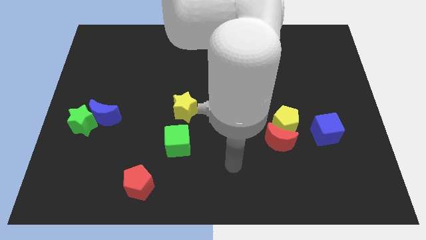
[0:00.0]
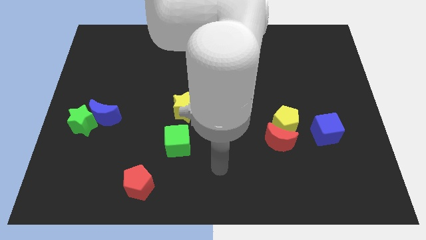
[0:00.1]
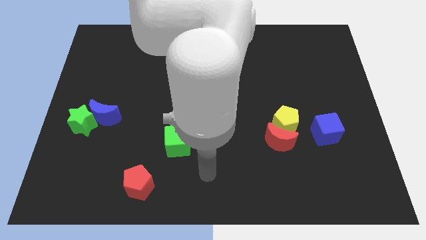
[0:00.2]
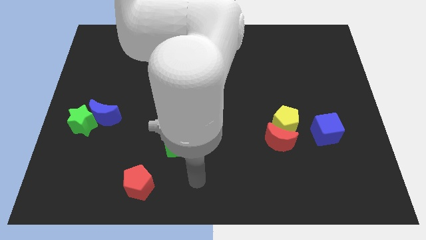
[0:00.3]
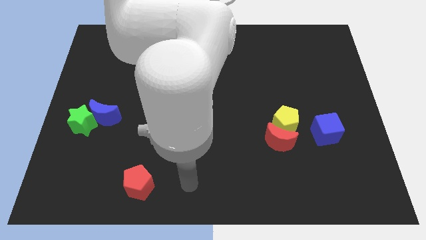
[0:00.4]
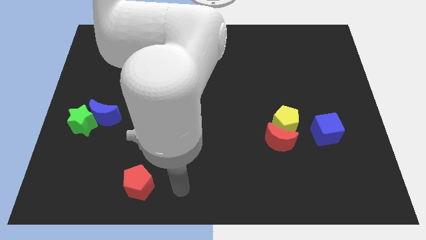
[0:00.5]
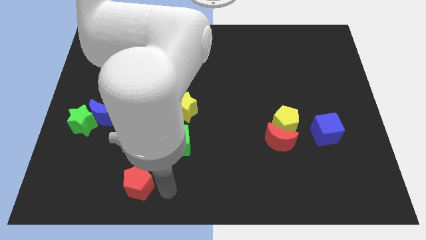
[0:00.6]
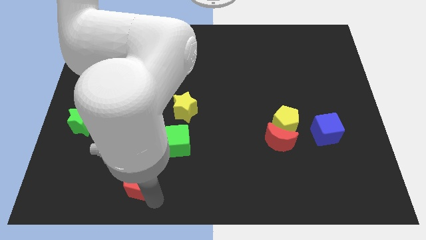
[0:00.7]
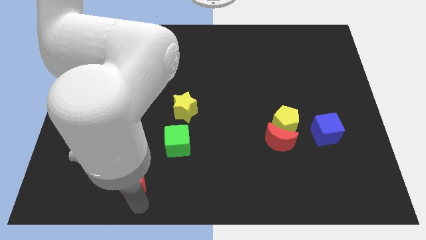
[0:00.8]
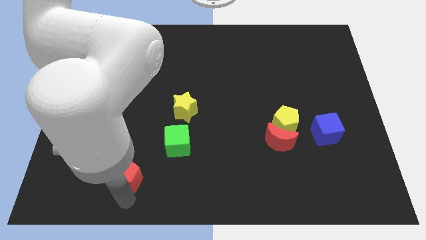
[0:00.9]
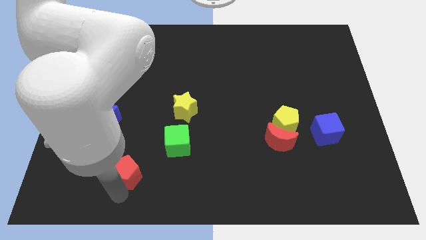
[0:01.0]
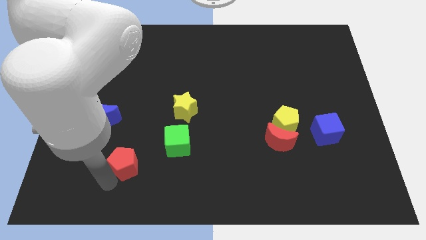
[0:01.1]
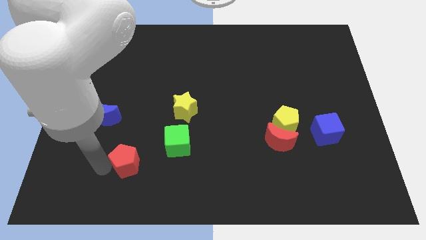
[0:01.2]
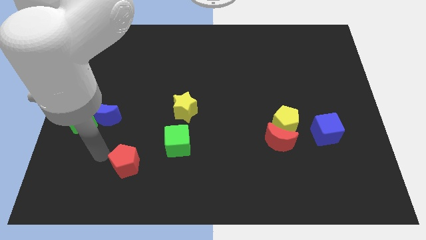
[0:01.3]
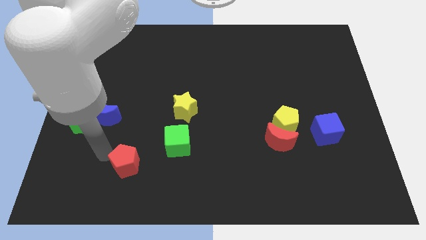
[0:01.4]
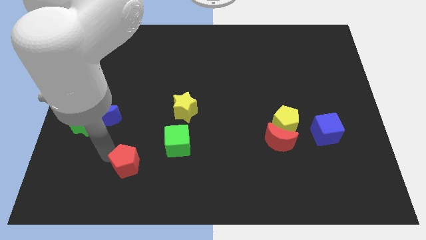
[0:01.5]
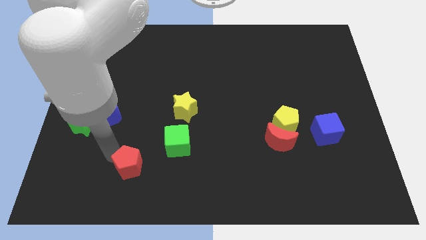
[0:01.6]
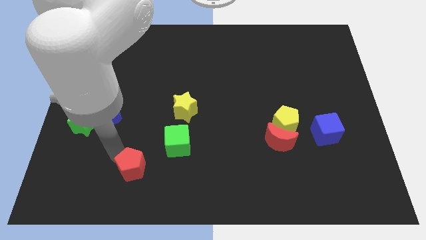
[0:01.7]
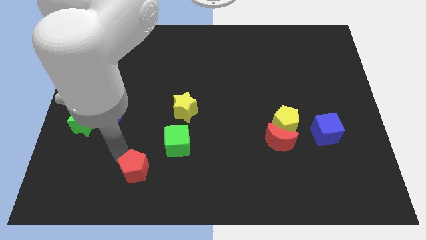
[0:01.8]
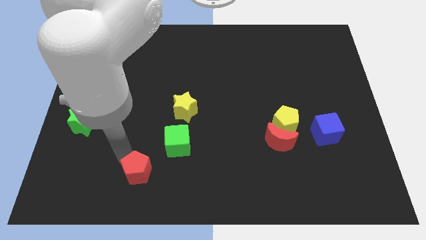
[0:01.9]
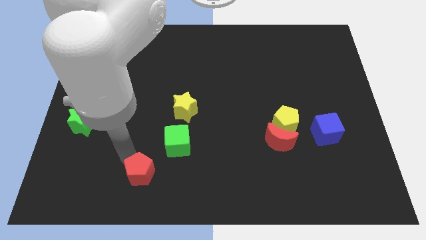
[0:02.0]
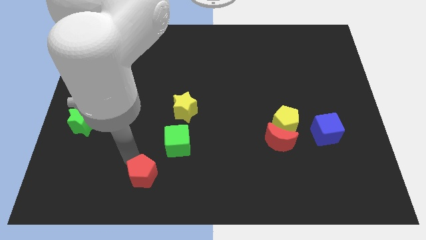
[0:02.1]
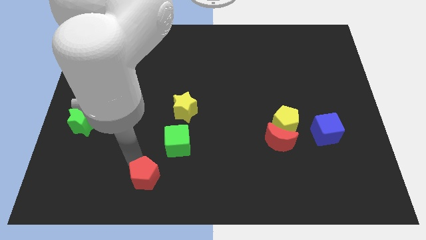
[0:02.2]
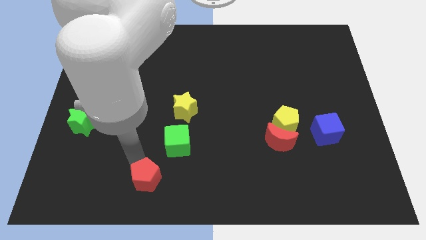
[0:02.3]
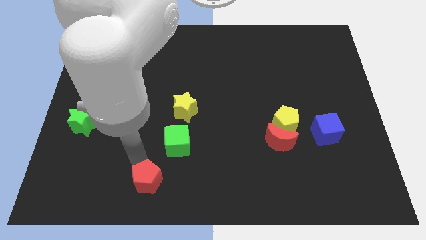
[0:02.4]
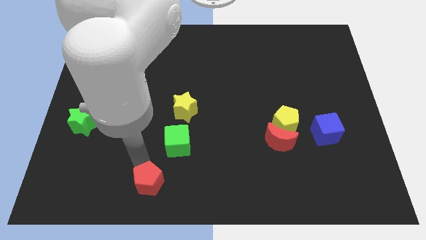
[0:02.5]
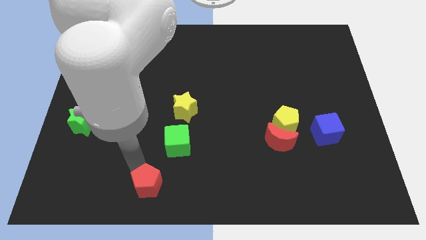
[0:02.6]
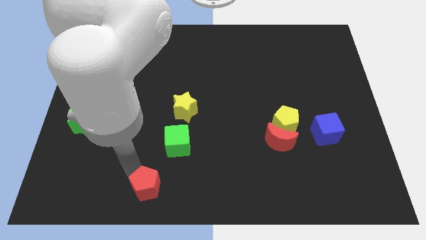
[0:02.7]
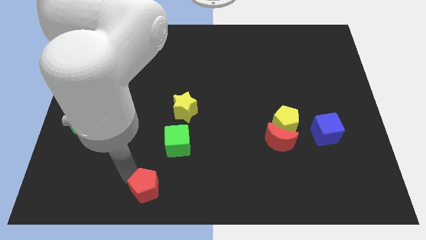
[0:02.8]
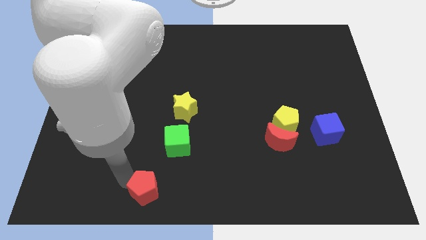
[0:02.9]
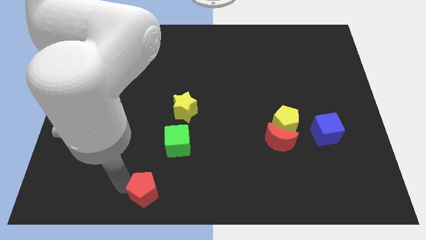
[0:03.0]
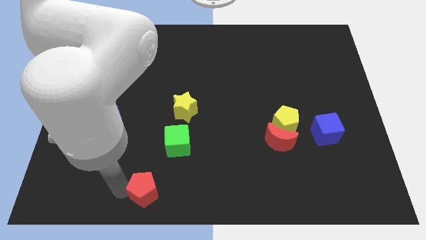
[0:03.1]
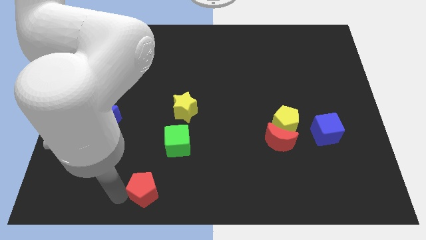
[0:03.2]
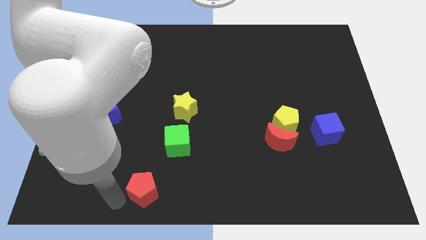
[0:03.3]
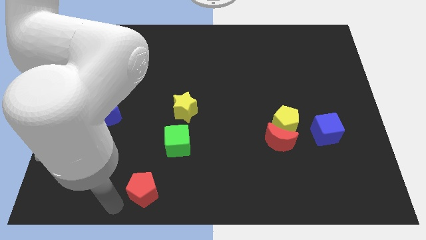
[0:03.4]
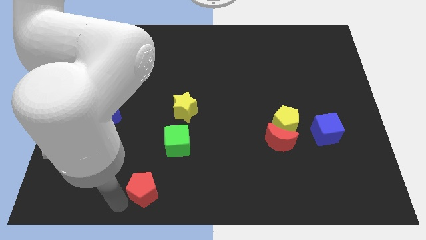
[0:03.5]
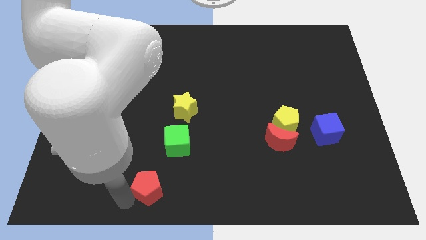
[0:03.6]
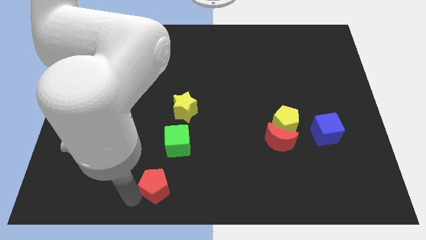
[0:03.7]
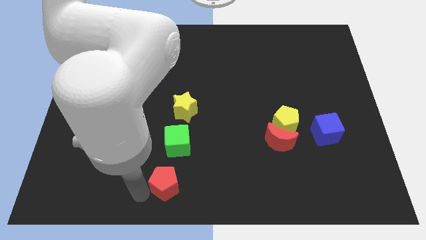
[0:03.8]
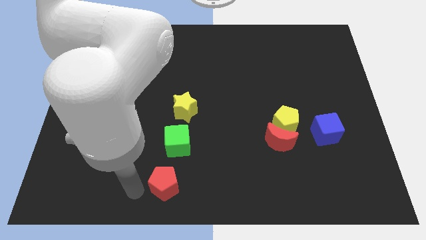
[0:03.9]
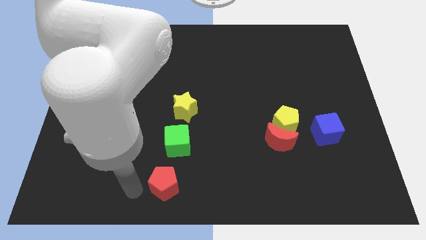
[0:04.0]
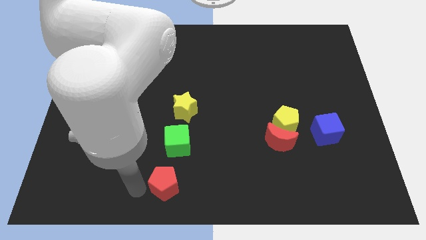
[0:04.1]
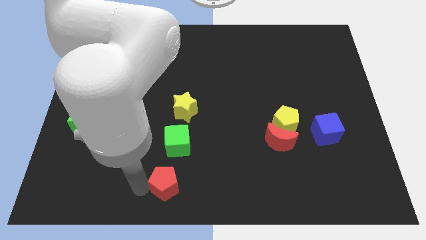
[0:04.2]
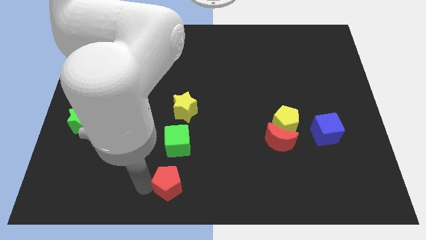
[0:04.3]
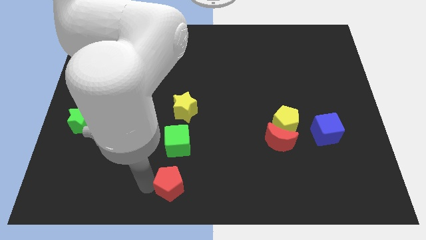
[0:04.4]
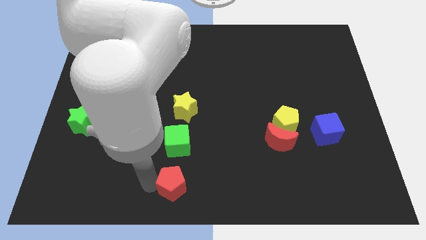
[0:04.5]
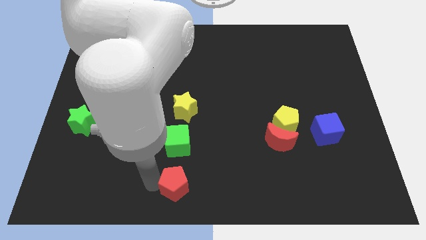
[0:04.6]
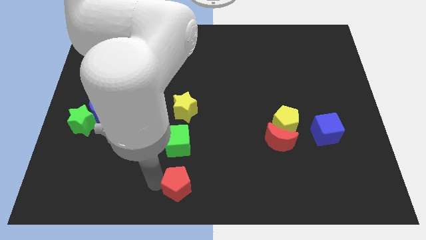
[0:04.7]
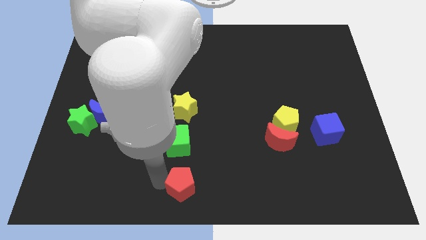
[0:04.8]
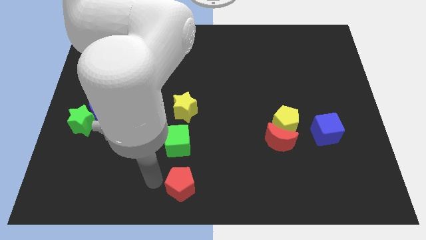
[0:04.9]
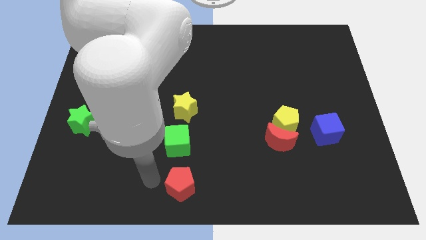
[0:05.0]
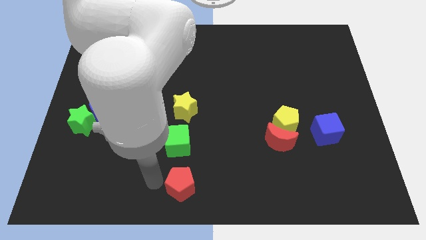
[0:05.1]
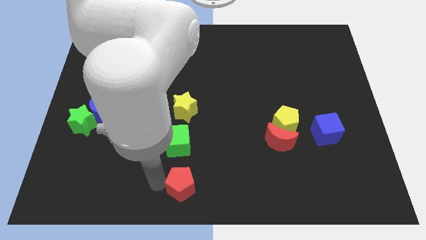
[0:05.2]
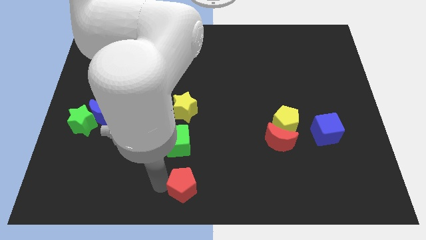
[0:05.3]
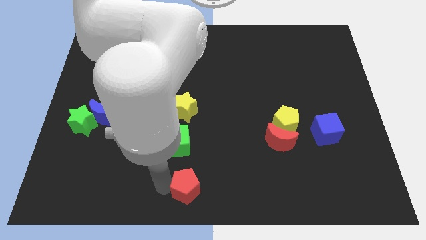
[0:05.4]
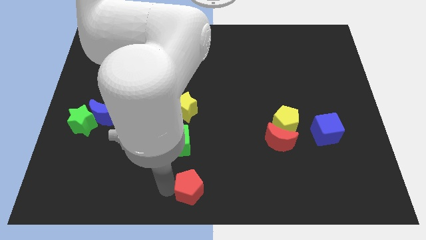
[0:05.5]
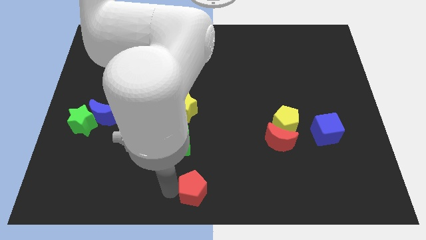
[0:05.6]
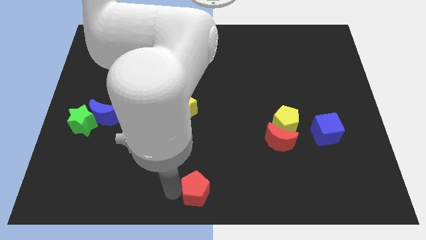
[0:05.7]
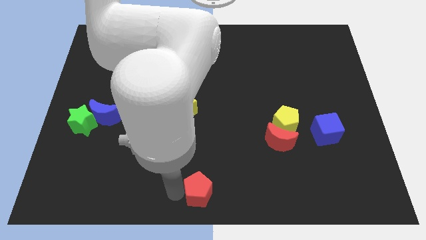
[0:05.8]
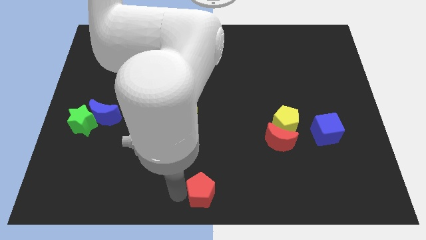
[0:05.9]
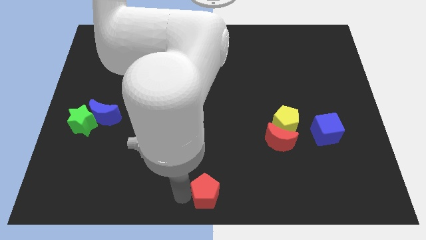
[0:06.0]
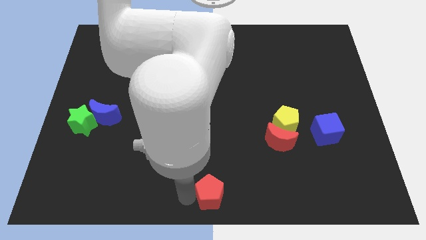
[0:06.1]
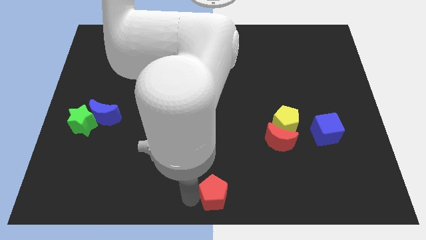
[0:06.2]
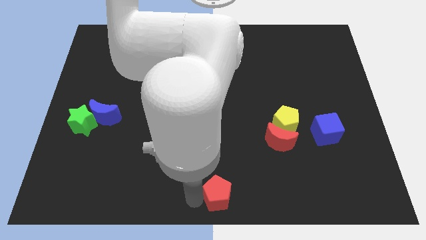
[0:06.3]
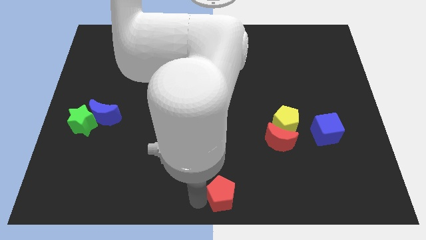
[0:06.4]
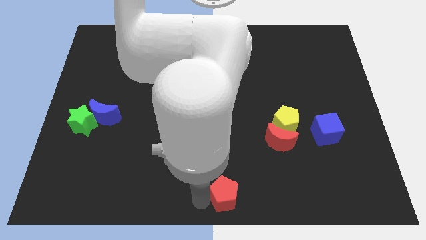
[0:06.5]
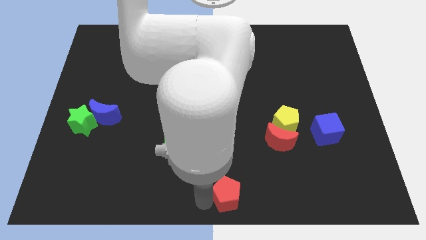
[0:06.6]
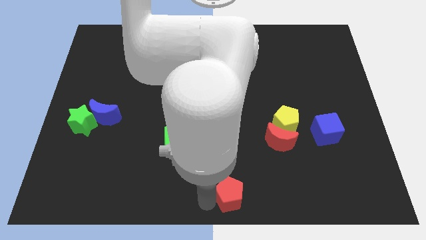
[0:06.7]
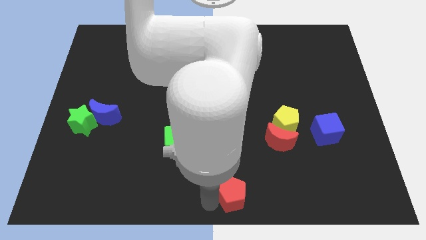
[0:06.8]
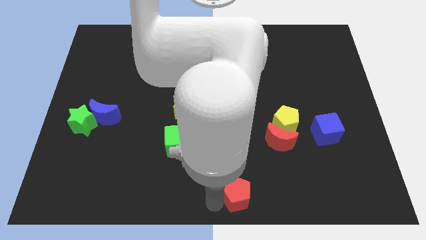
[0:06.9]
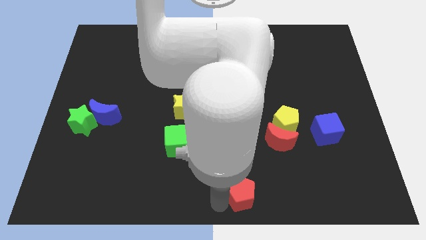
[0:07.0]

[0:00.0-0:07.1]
push the red pentagon to the right

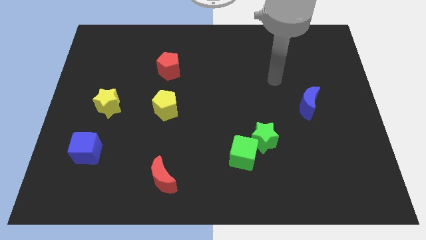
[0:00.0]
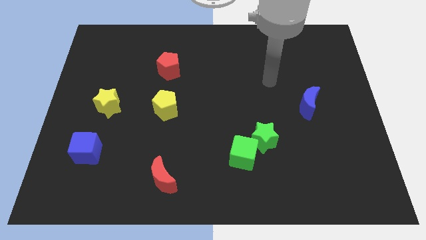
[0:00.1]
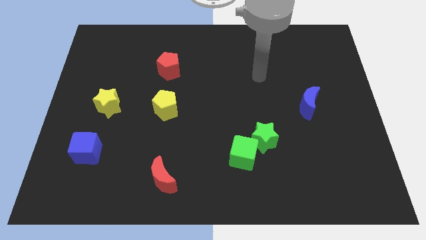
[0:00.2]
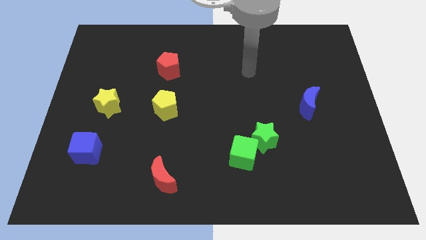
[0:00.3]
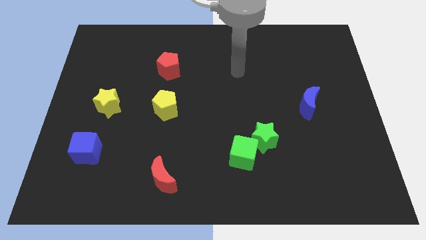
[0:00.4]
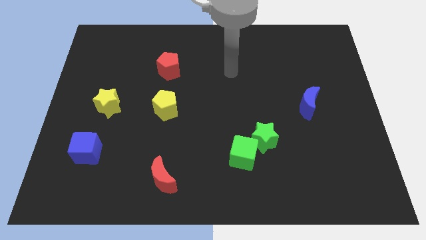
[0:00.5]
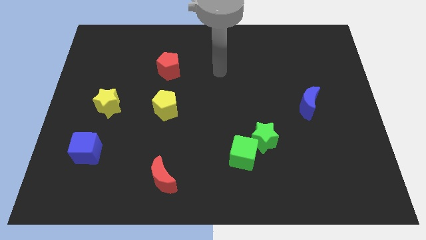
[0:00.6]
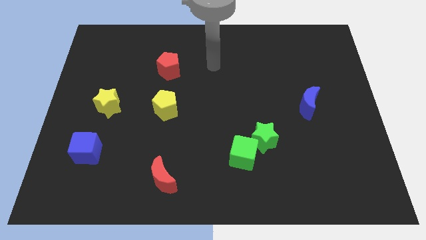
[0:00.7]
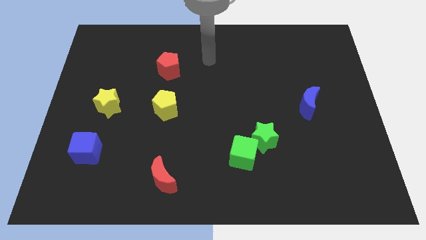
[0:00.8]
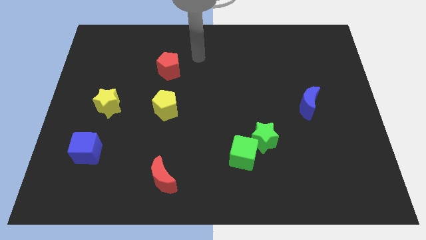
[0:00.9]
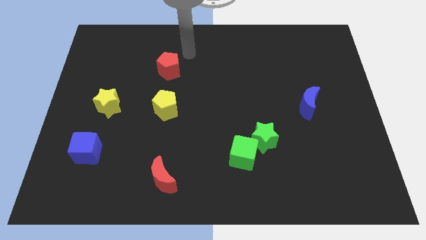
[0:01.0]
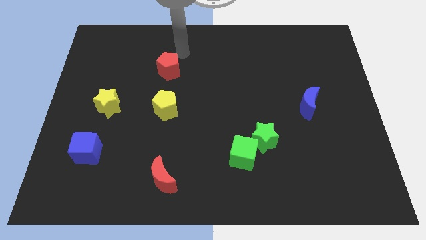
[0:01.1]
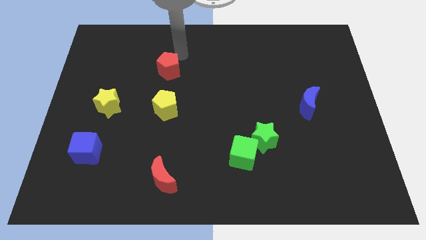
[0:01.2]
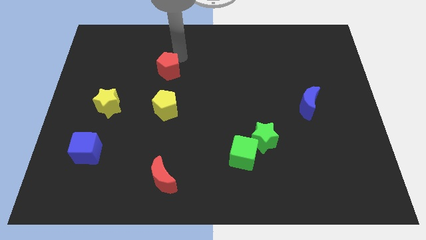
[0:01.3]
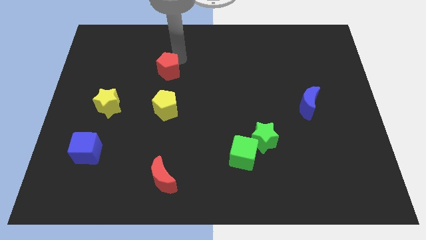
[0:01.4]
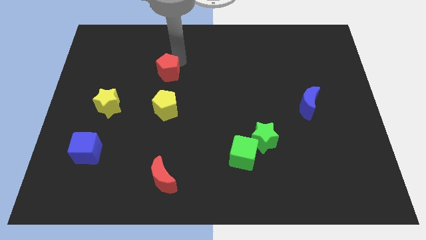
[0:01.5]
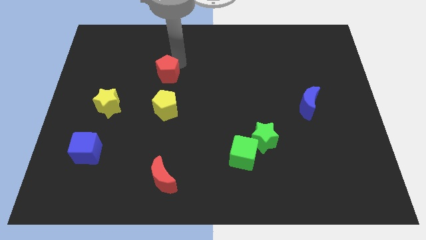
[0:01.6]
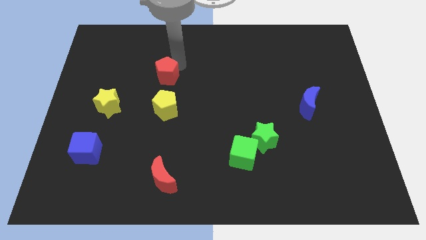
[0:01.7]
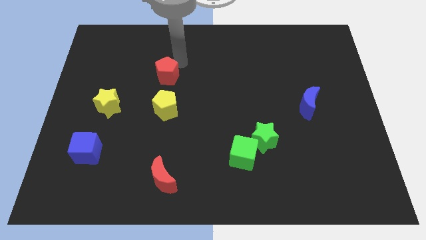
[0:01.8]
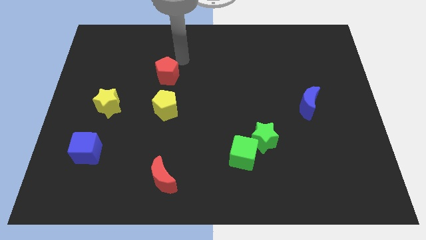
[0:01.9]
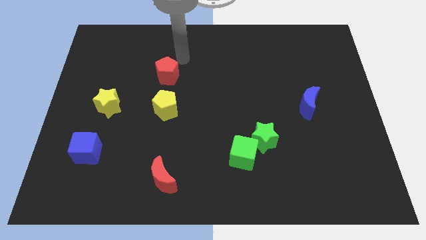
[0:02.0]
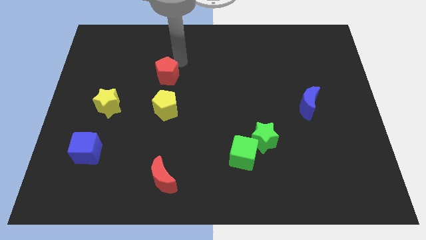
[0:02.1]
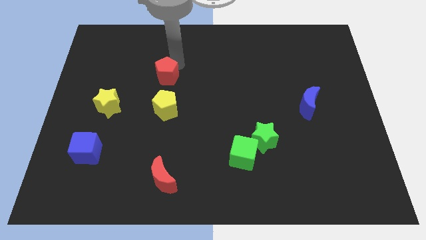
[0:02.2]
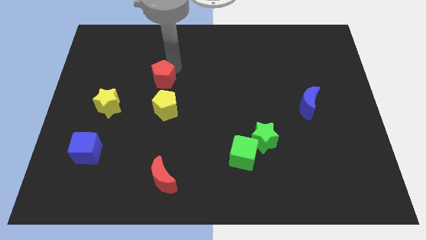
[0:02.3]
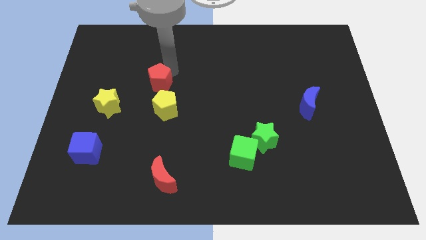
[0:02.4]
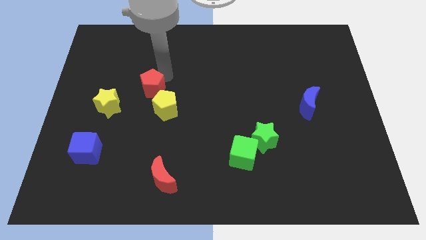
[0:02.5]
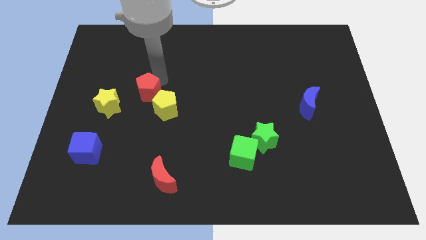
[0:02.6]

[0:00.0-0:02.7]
slide the red pentagon somewhat down
